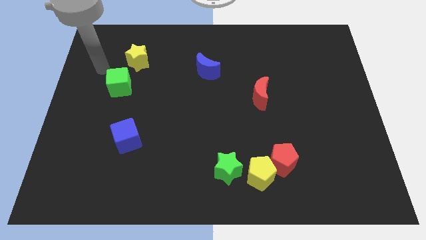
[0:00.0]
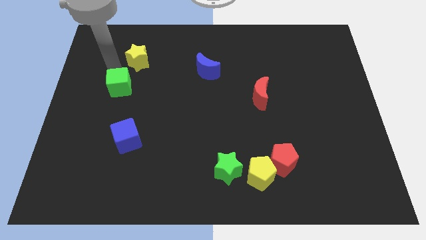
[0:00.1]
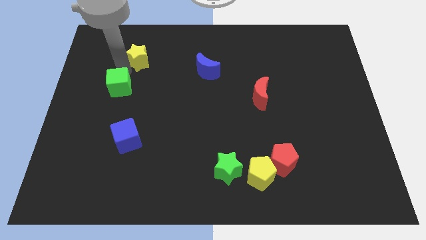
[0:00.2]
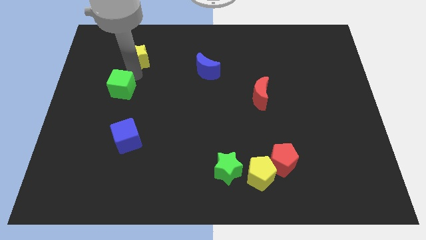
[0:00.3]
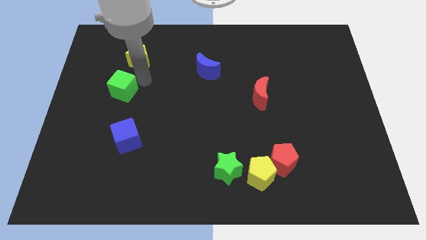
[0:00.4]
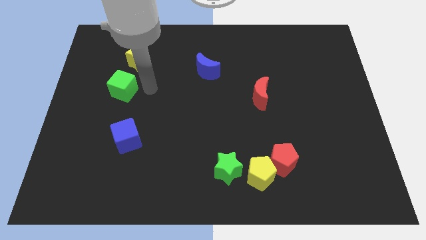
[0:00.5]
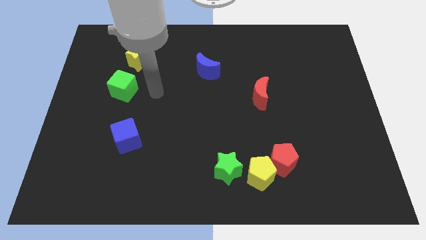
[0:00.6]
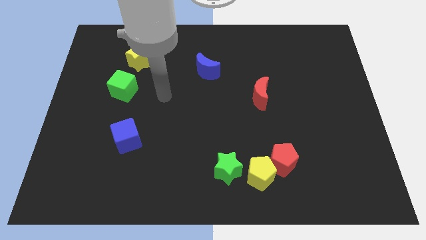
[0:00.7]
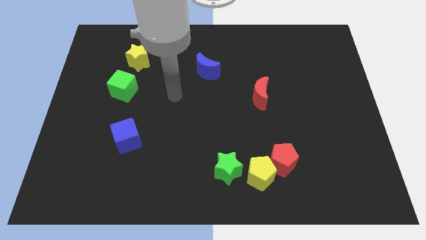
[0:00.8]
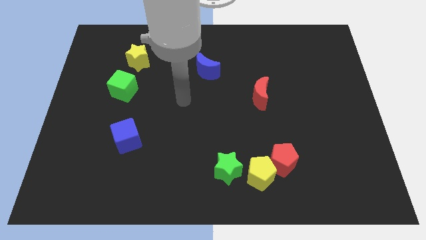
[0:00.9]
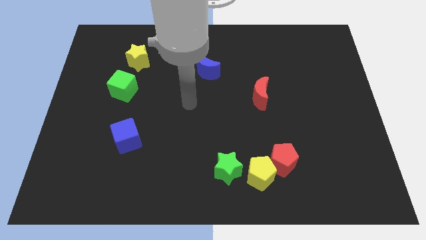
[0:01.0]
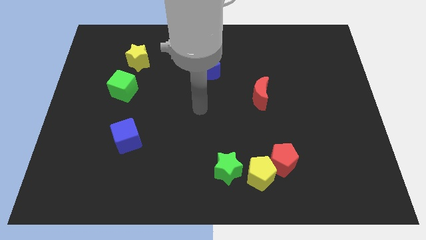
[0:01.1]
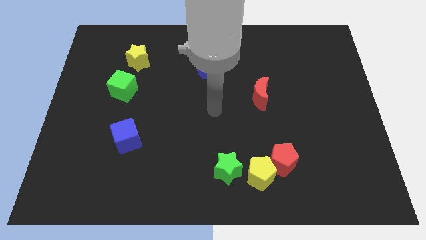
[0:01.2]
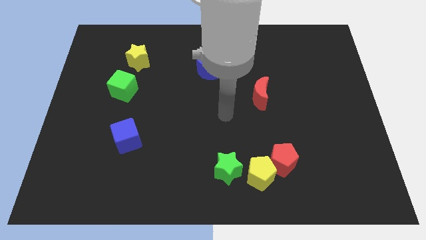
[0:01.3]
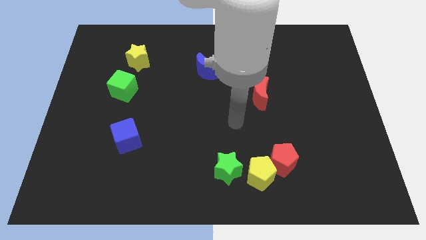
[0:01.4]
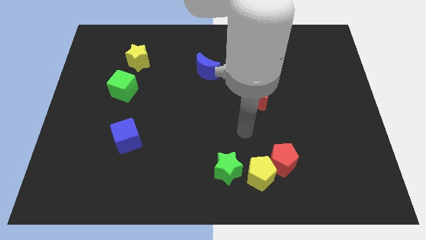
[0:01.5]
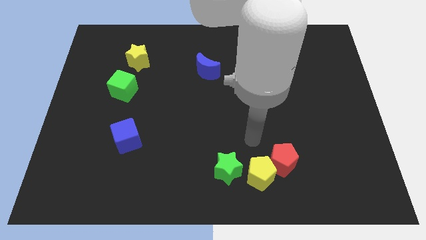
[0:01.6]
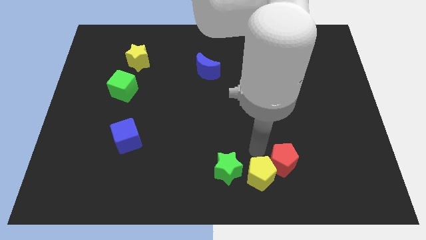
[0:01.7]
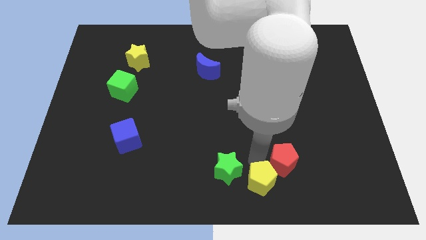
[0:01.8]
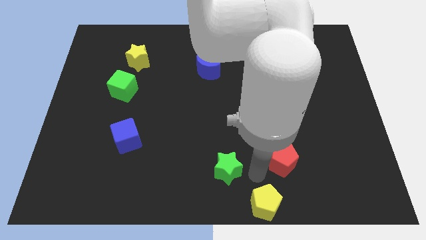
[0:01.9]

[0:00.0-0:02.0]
pull the red pentagon apart from the yellow pentagon

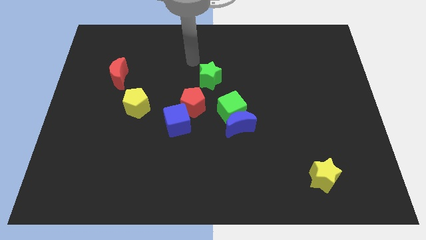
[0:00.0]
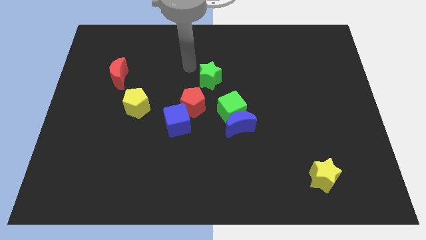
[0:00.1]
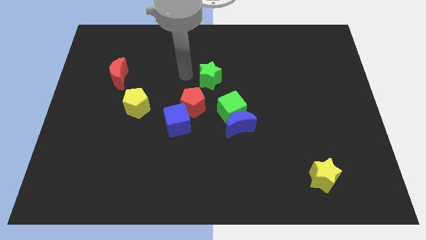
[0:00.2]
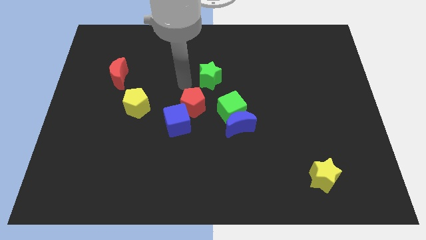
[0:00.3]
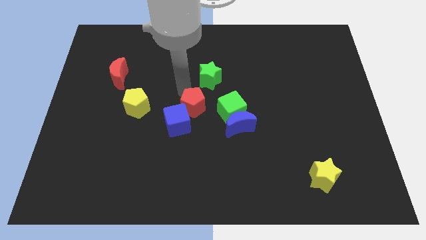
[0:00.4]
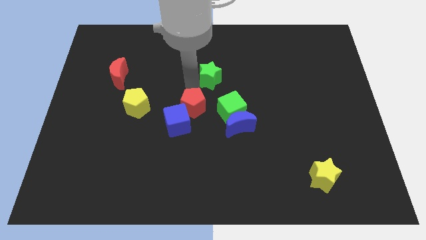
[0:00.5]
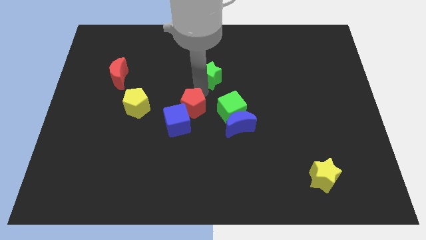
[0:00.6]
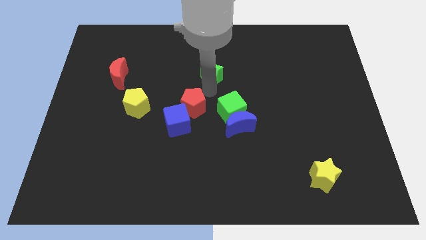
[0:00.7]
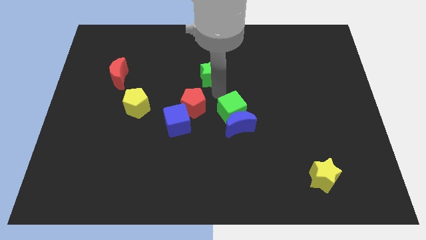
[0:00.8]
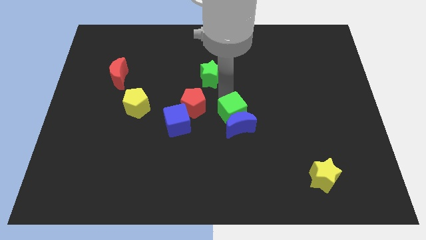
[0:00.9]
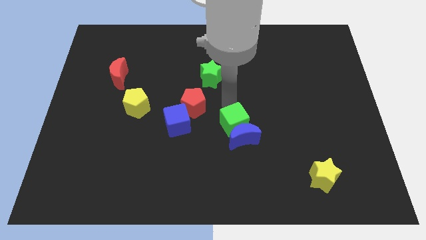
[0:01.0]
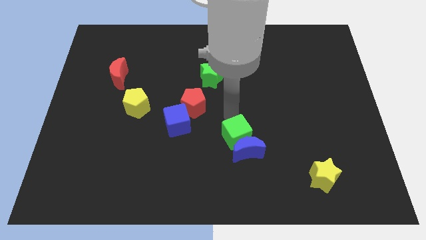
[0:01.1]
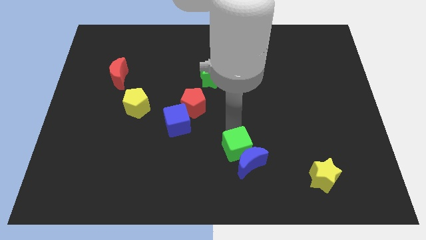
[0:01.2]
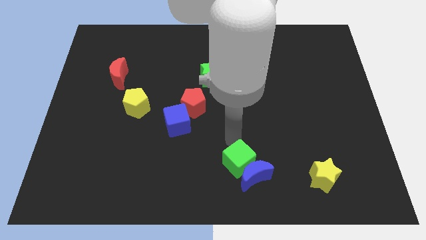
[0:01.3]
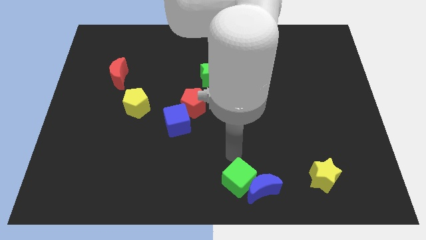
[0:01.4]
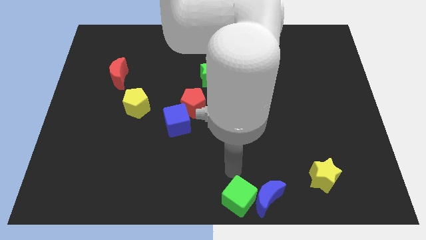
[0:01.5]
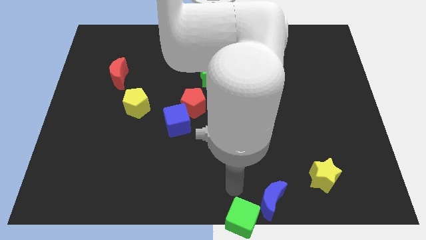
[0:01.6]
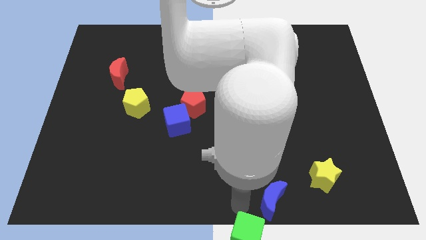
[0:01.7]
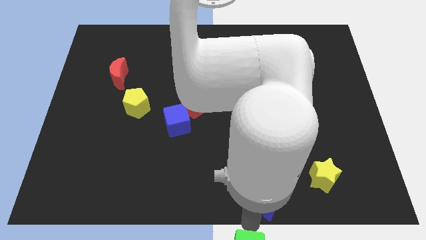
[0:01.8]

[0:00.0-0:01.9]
move the blue moon away from the green cube

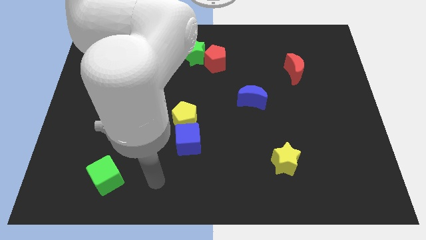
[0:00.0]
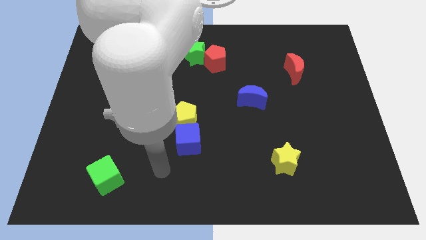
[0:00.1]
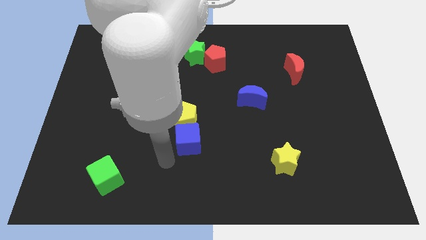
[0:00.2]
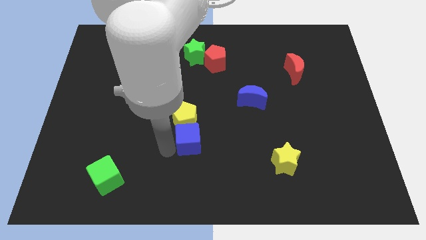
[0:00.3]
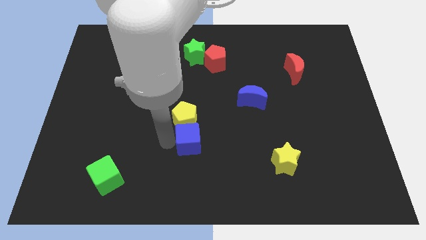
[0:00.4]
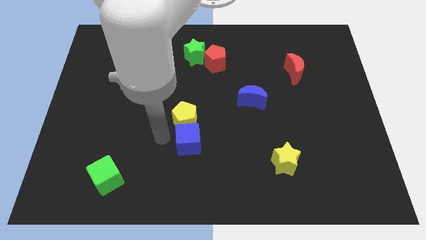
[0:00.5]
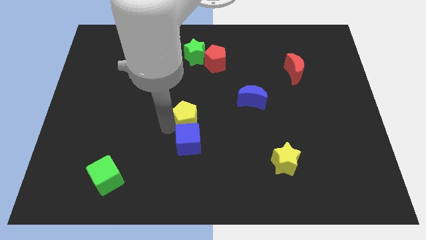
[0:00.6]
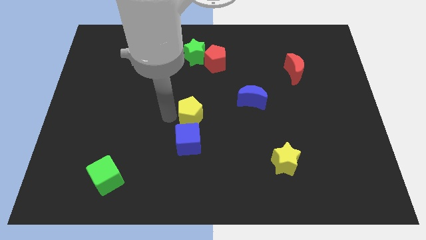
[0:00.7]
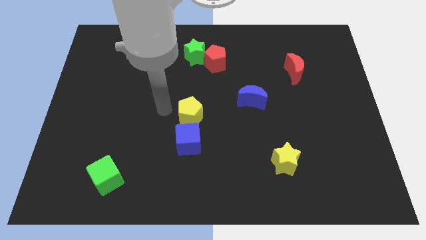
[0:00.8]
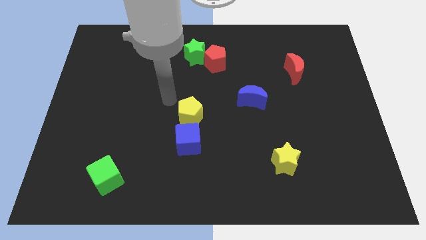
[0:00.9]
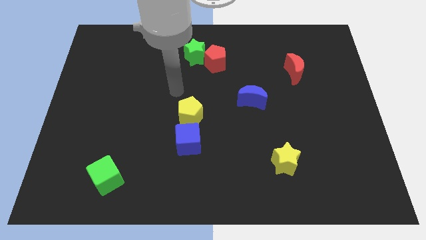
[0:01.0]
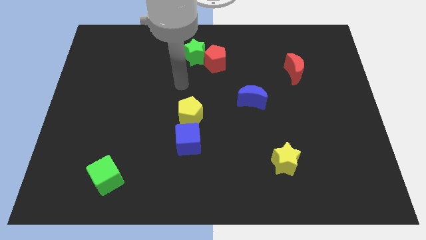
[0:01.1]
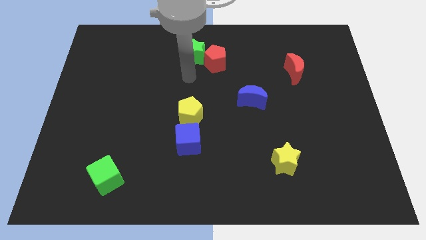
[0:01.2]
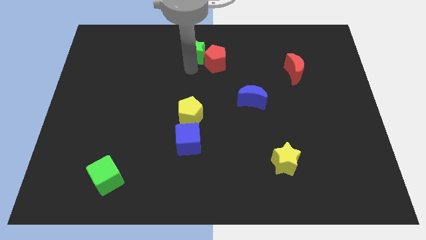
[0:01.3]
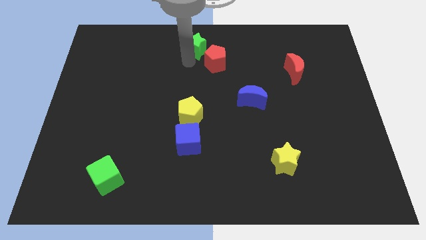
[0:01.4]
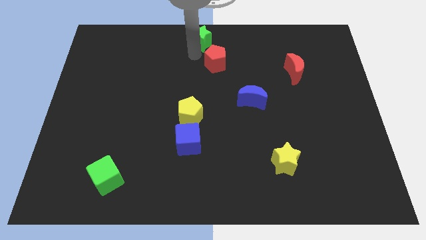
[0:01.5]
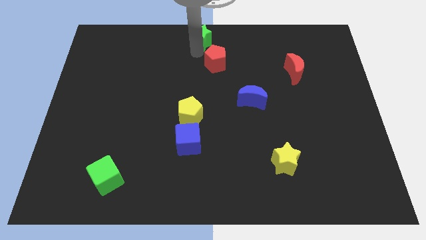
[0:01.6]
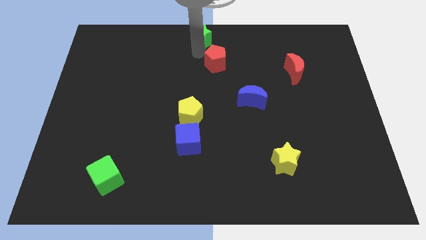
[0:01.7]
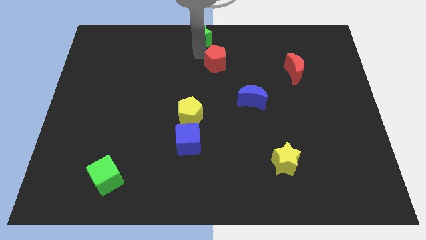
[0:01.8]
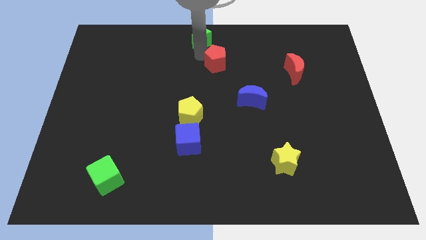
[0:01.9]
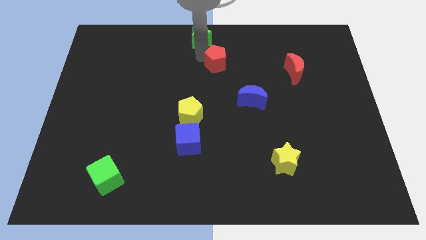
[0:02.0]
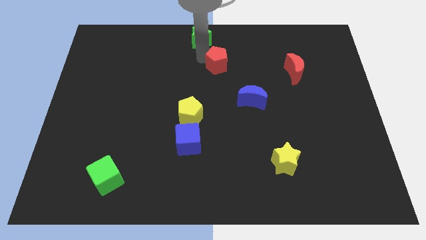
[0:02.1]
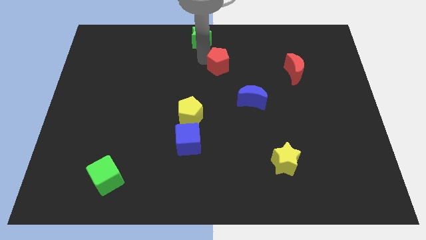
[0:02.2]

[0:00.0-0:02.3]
pull the red pentagon apart from the green star

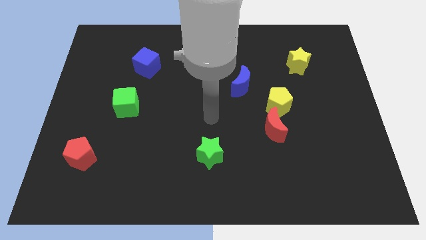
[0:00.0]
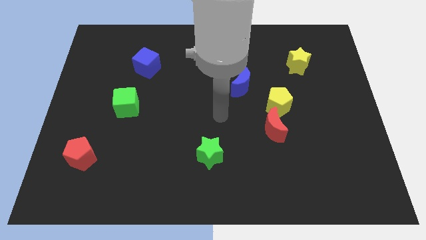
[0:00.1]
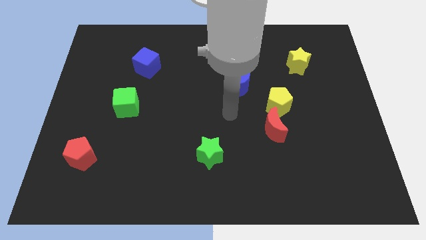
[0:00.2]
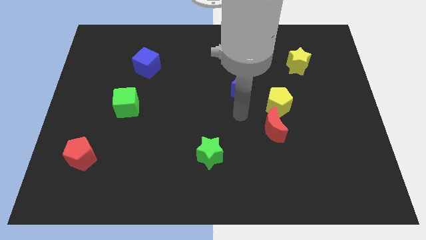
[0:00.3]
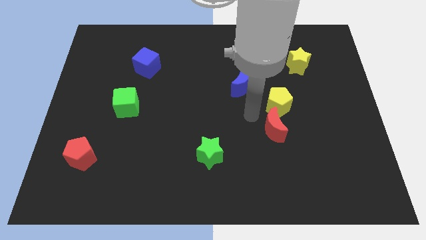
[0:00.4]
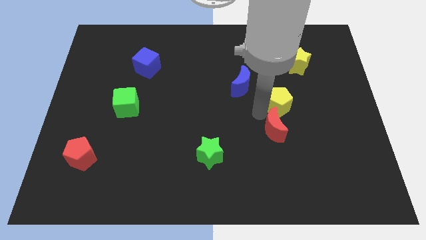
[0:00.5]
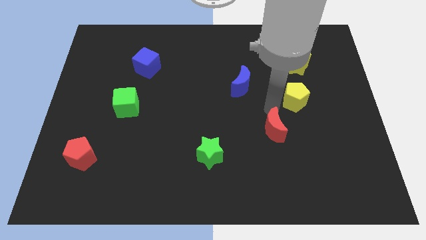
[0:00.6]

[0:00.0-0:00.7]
move the red moon away from the yellow pentagon

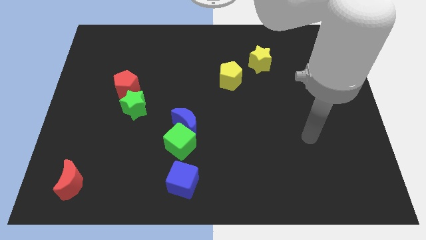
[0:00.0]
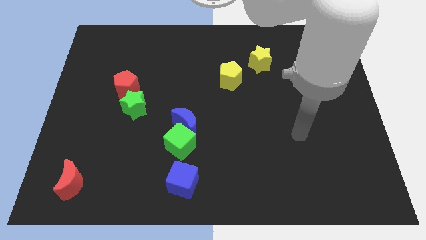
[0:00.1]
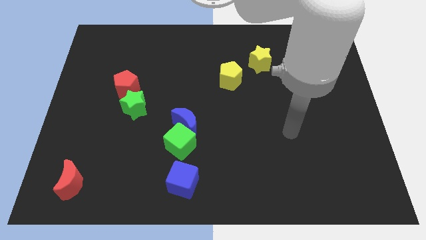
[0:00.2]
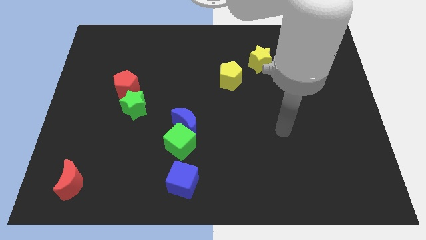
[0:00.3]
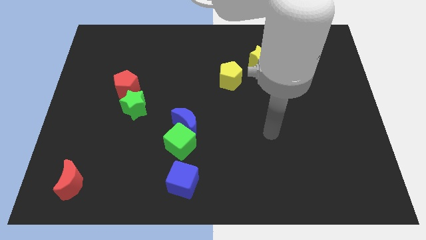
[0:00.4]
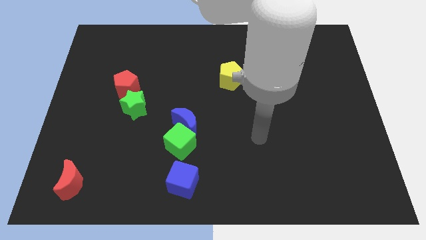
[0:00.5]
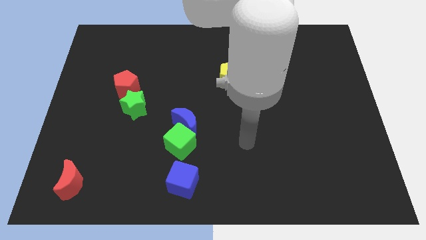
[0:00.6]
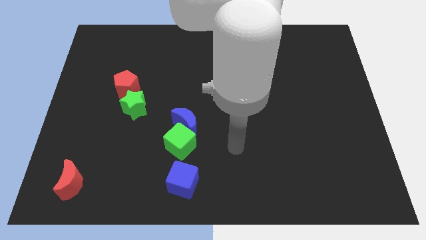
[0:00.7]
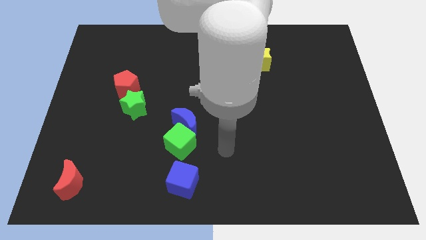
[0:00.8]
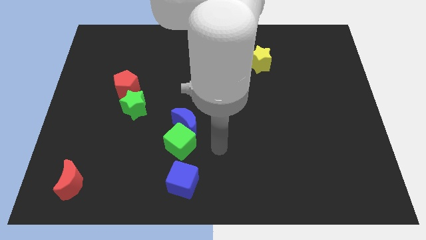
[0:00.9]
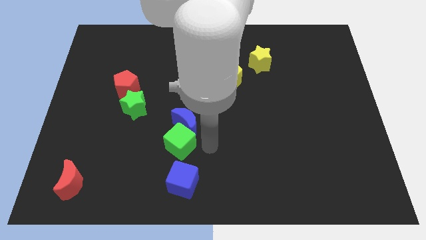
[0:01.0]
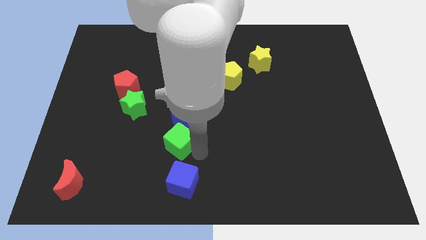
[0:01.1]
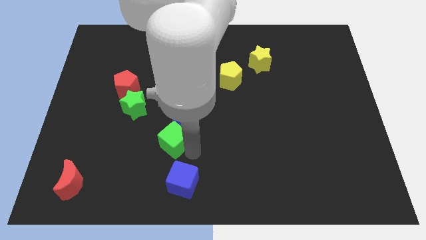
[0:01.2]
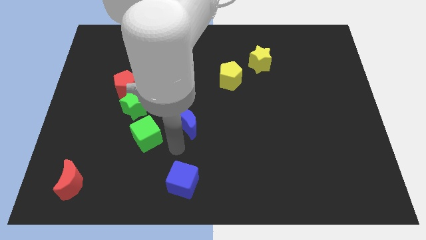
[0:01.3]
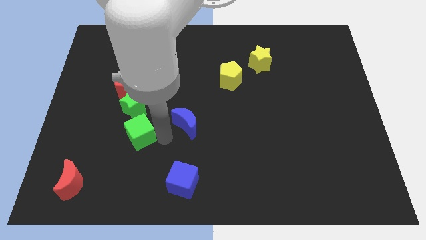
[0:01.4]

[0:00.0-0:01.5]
pull the blue moon apart from the green cube

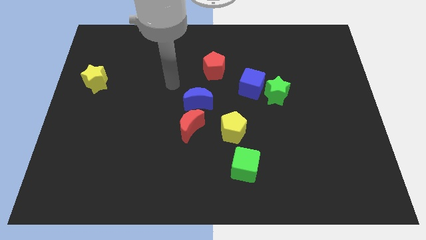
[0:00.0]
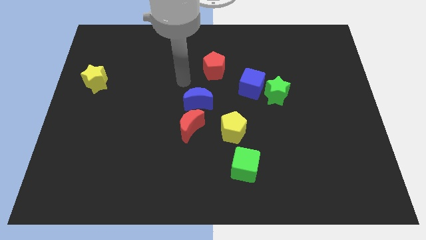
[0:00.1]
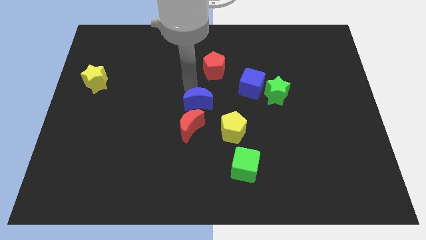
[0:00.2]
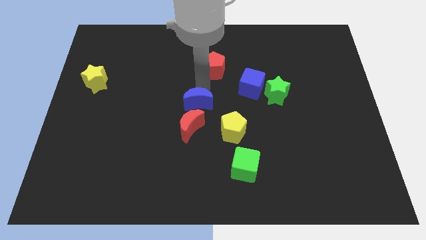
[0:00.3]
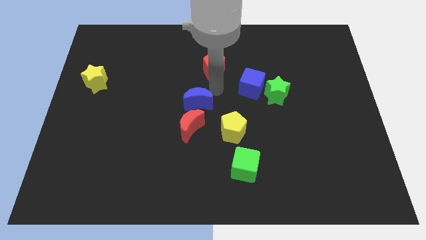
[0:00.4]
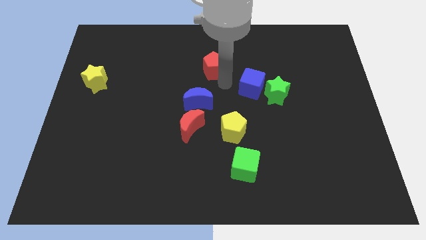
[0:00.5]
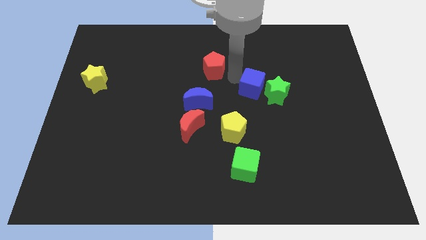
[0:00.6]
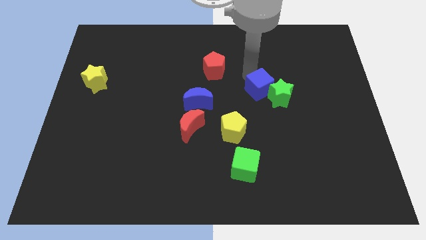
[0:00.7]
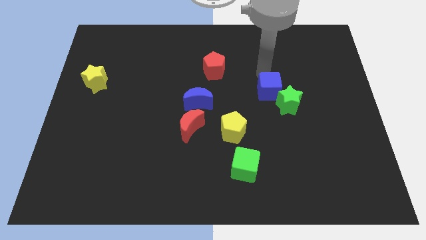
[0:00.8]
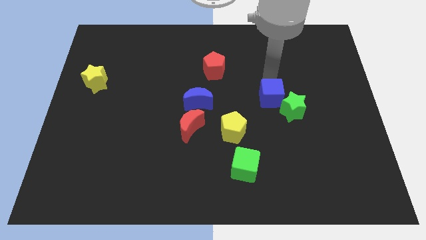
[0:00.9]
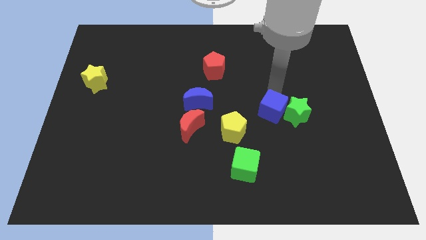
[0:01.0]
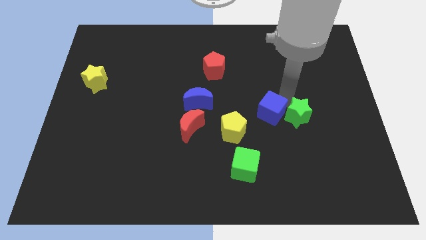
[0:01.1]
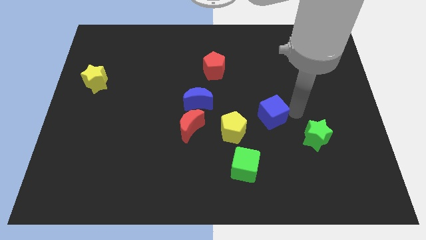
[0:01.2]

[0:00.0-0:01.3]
pull the blue cube apart from the green star
